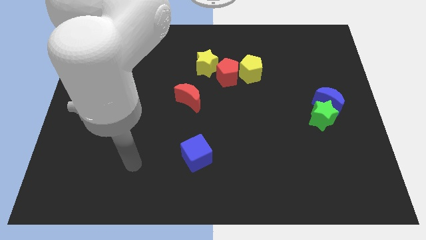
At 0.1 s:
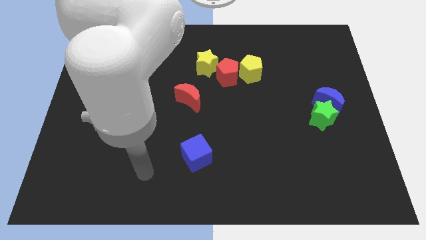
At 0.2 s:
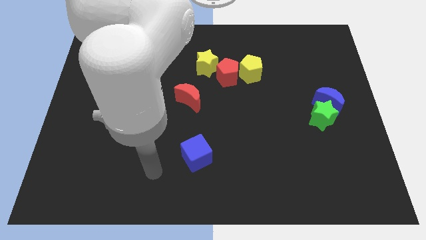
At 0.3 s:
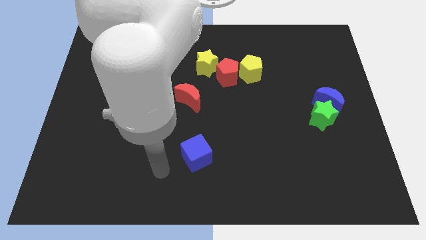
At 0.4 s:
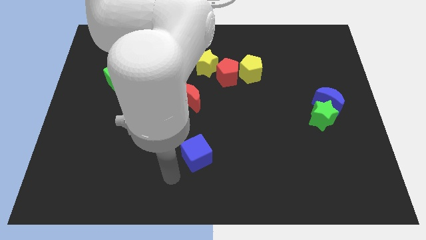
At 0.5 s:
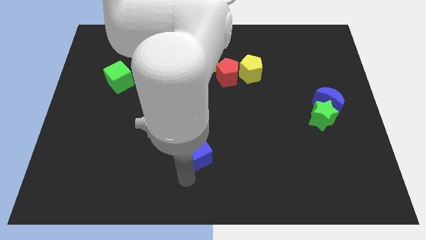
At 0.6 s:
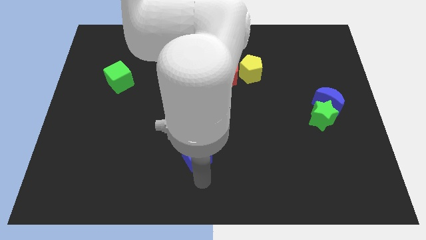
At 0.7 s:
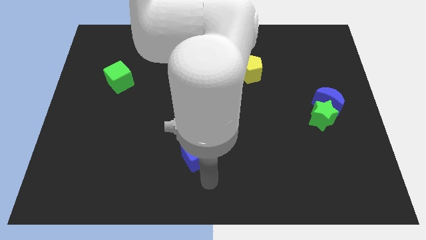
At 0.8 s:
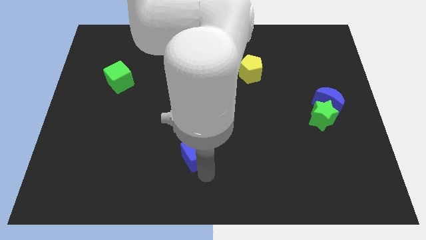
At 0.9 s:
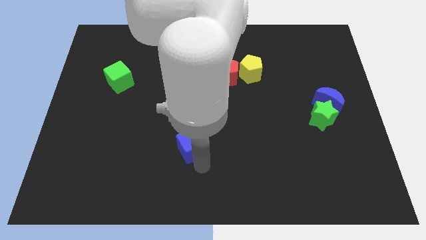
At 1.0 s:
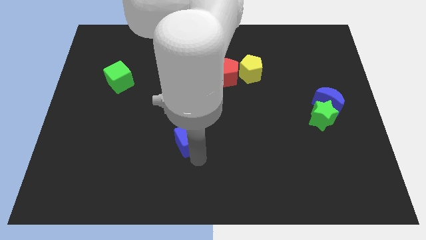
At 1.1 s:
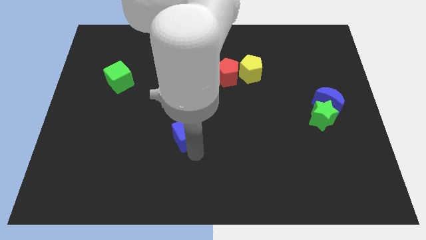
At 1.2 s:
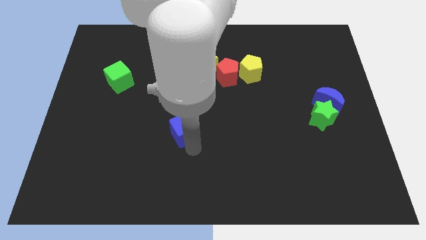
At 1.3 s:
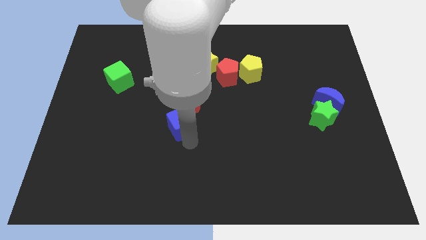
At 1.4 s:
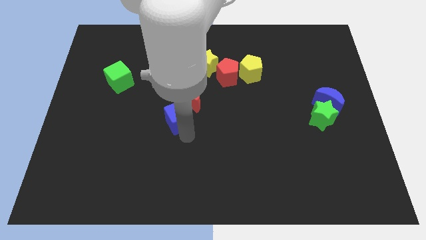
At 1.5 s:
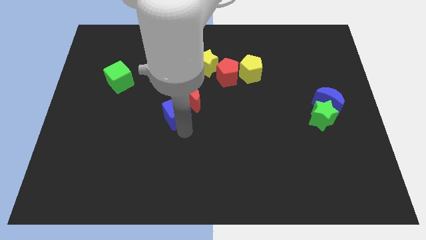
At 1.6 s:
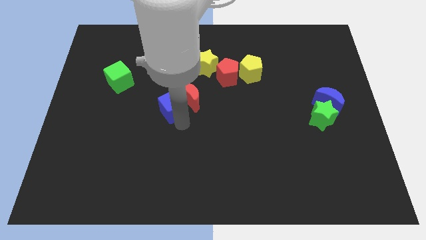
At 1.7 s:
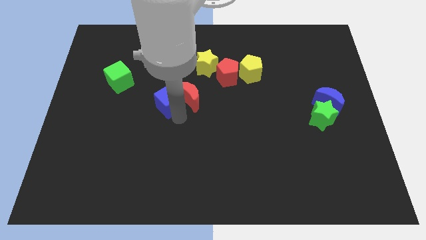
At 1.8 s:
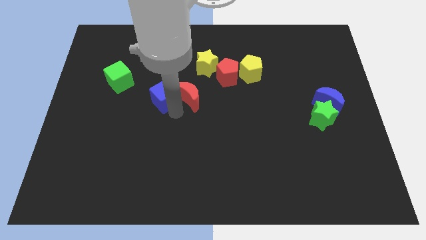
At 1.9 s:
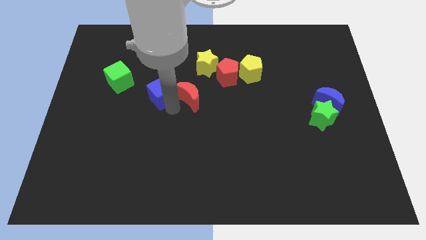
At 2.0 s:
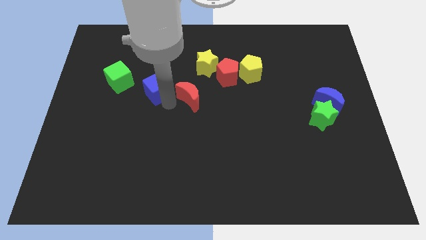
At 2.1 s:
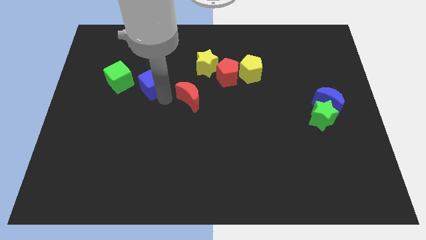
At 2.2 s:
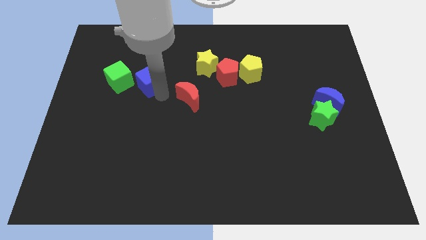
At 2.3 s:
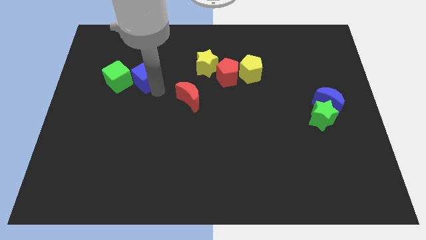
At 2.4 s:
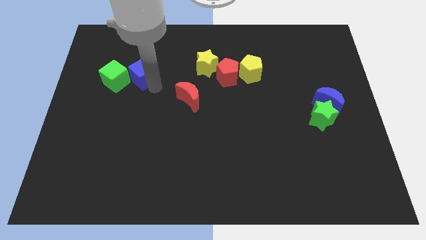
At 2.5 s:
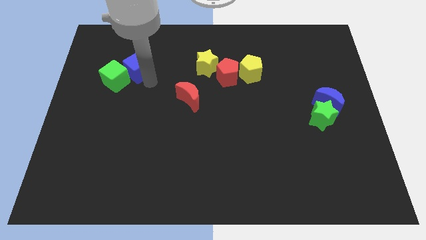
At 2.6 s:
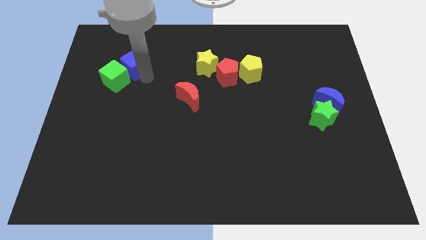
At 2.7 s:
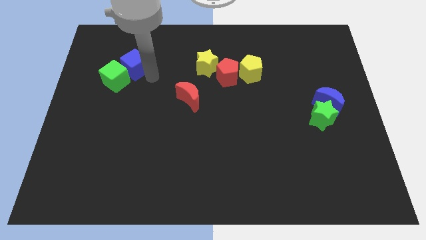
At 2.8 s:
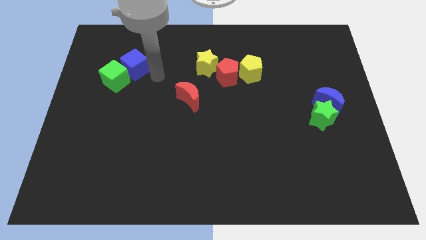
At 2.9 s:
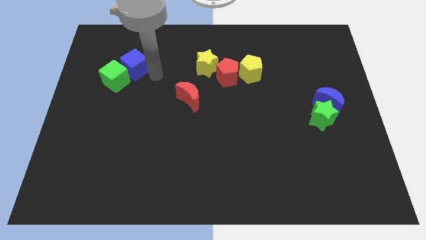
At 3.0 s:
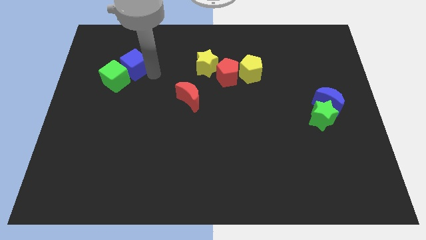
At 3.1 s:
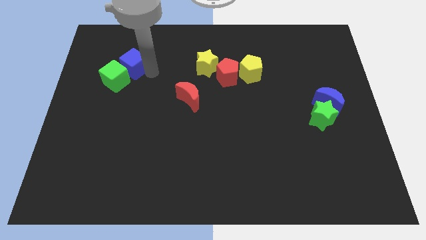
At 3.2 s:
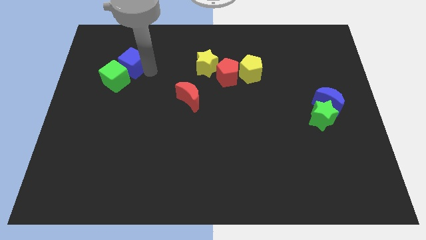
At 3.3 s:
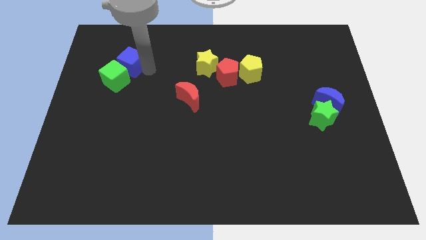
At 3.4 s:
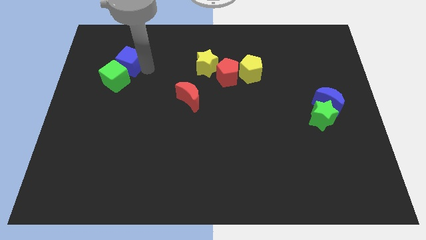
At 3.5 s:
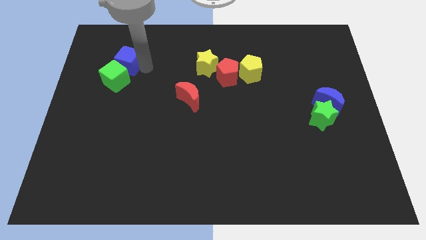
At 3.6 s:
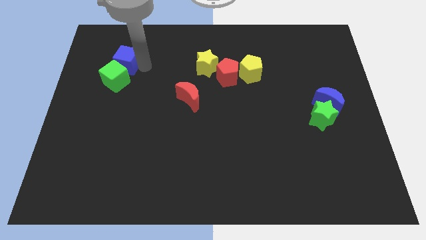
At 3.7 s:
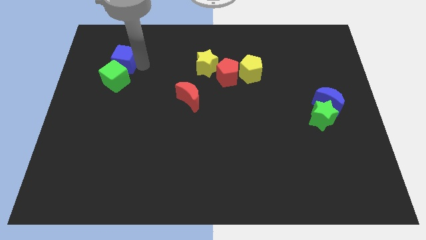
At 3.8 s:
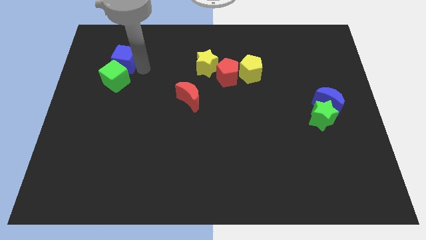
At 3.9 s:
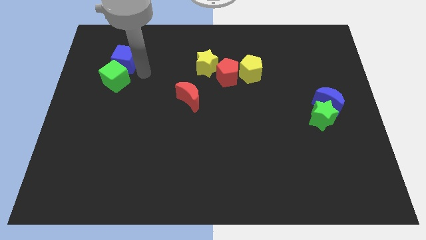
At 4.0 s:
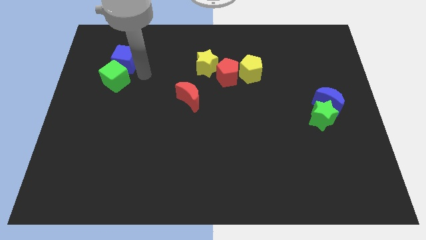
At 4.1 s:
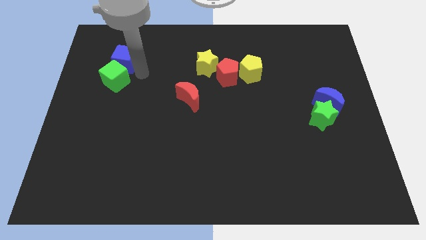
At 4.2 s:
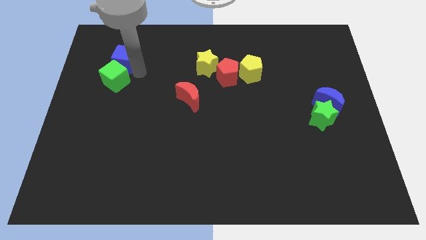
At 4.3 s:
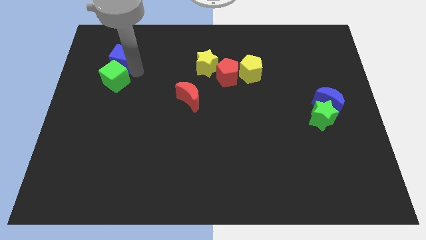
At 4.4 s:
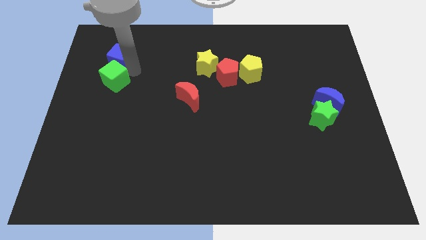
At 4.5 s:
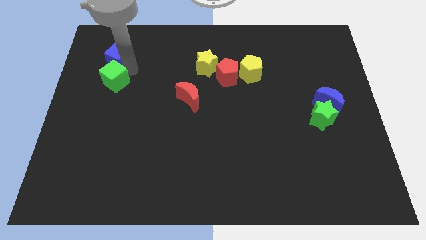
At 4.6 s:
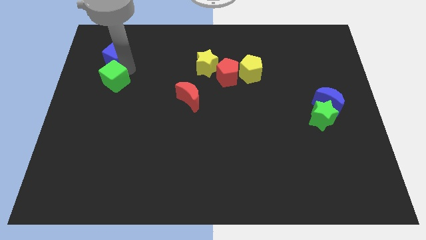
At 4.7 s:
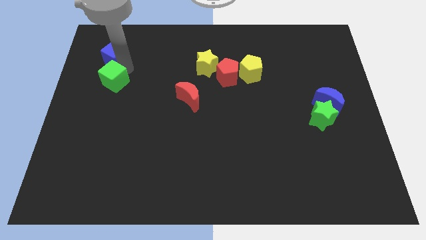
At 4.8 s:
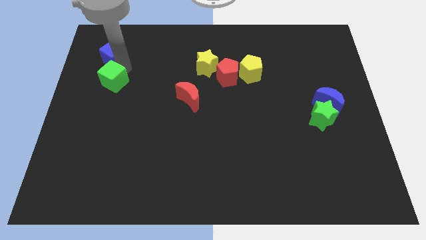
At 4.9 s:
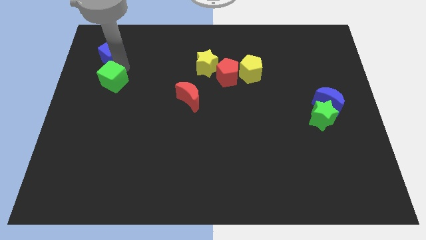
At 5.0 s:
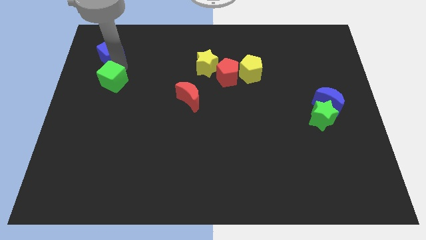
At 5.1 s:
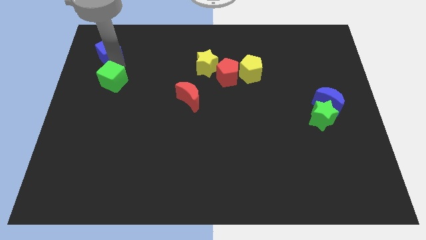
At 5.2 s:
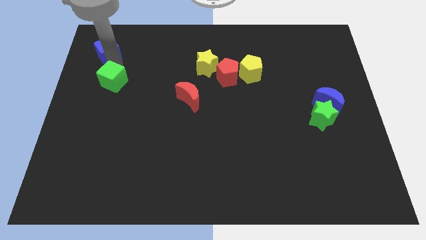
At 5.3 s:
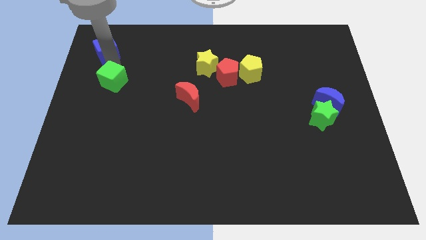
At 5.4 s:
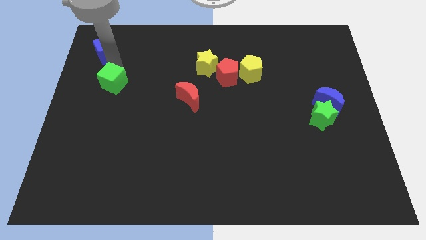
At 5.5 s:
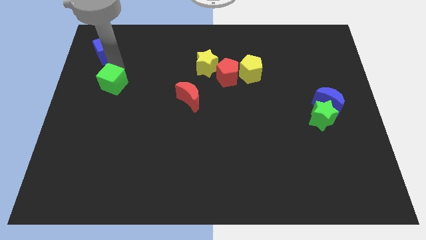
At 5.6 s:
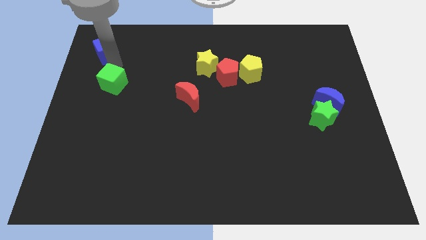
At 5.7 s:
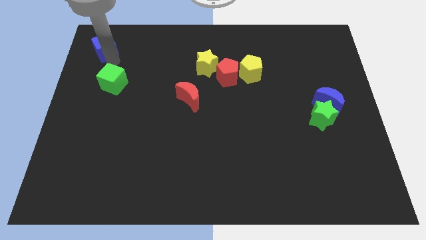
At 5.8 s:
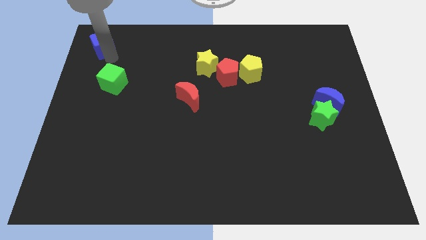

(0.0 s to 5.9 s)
slide the blue cube to the top left of the board

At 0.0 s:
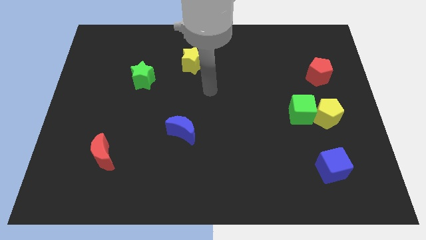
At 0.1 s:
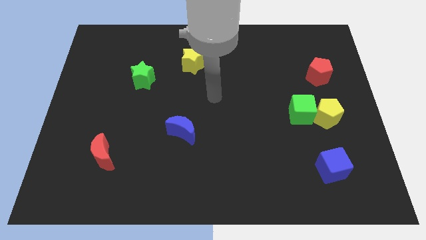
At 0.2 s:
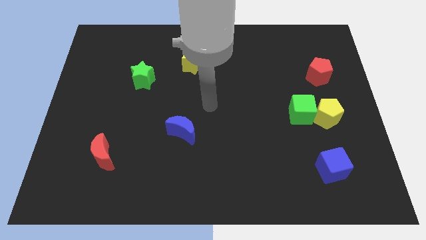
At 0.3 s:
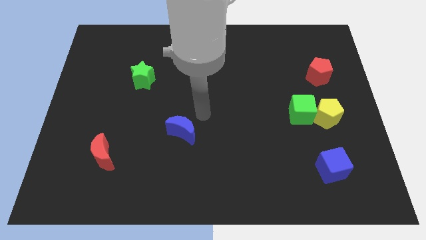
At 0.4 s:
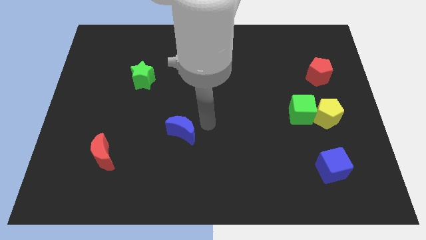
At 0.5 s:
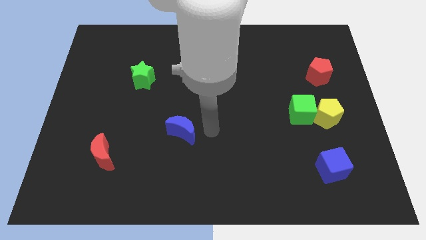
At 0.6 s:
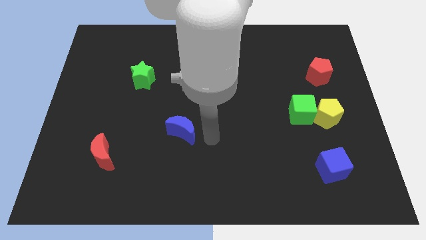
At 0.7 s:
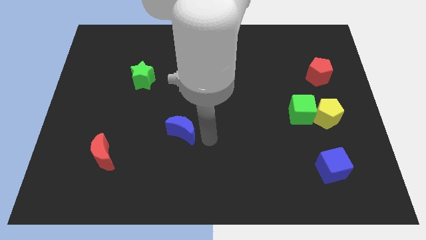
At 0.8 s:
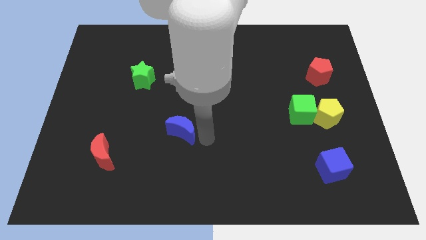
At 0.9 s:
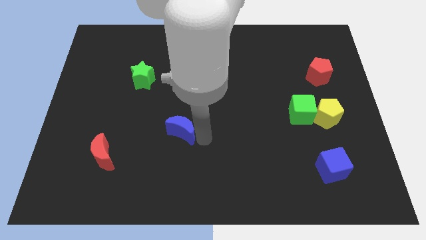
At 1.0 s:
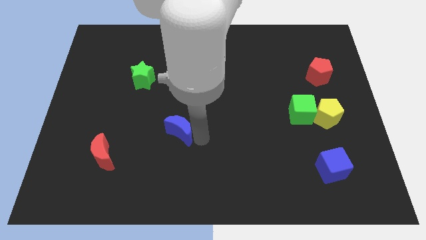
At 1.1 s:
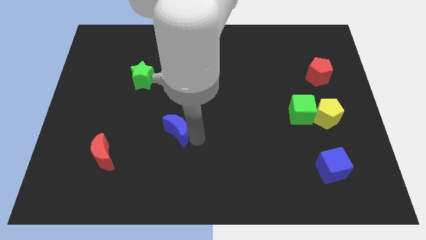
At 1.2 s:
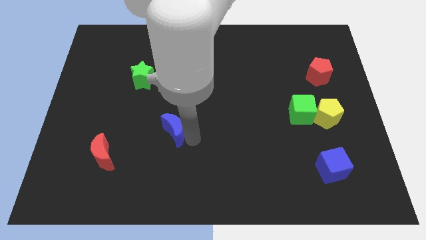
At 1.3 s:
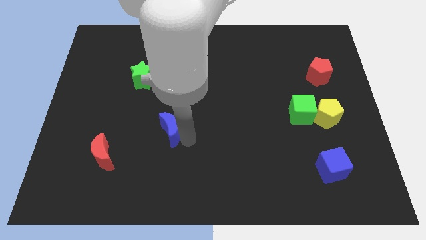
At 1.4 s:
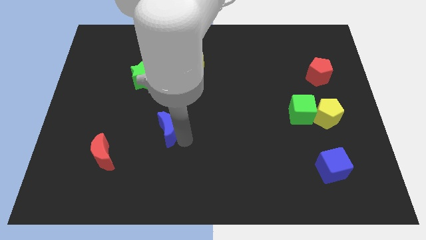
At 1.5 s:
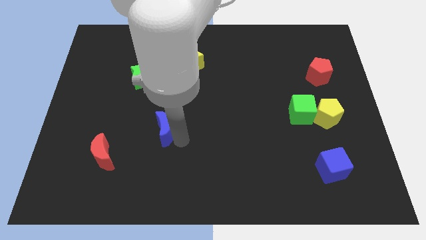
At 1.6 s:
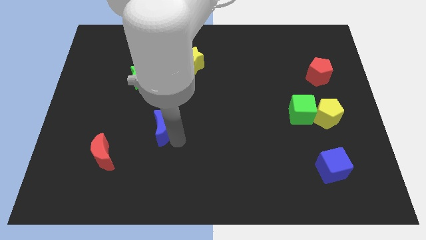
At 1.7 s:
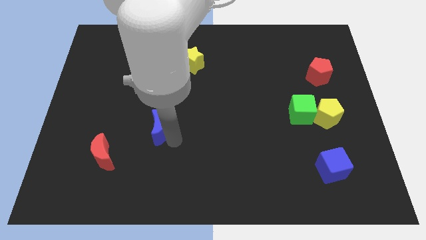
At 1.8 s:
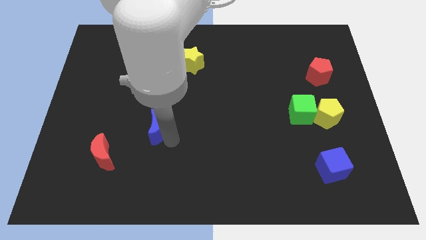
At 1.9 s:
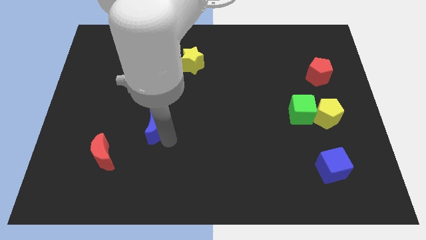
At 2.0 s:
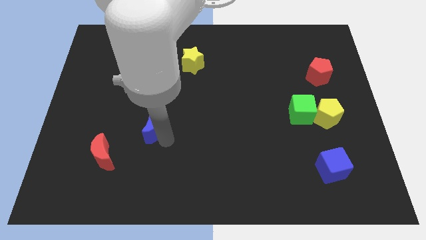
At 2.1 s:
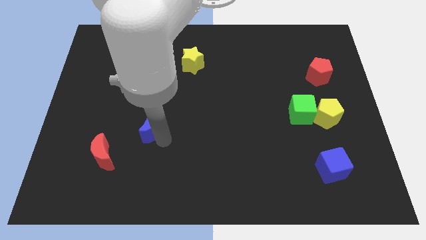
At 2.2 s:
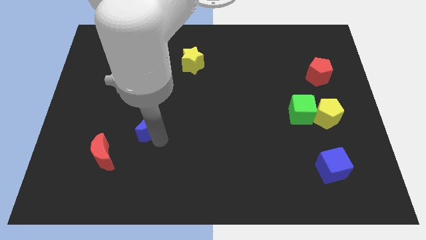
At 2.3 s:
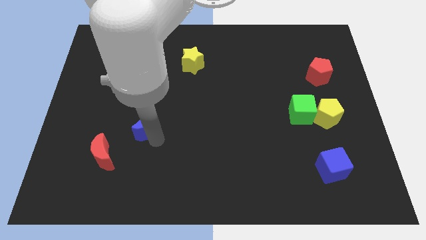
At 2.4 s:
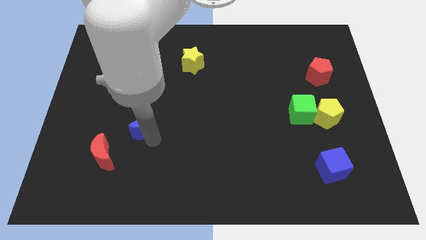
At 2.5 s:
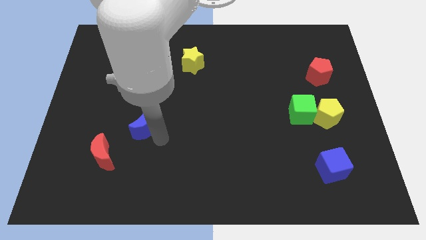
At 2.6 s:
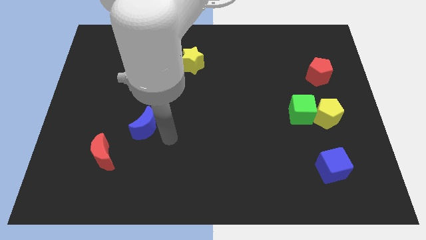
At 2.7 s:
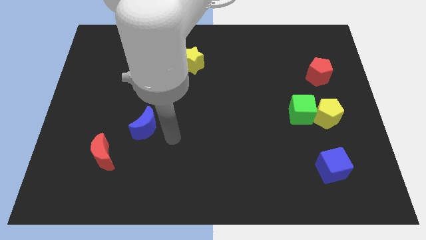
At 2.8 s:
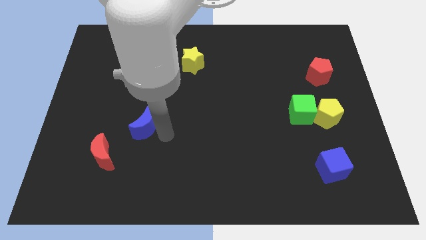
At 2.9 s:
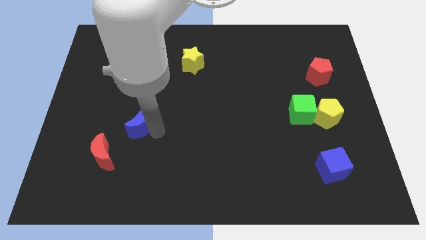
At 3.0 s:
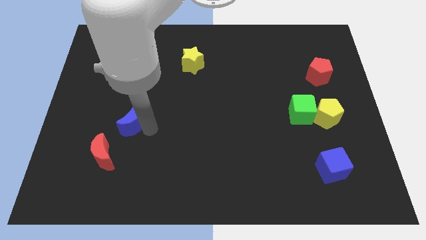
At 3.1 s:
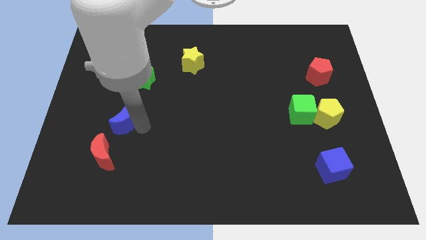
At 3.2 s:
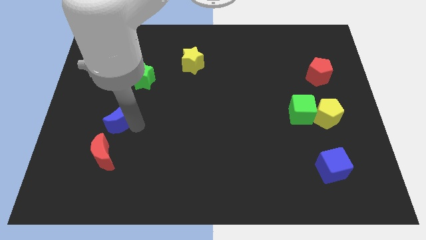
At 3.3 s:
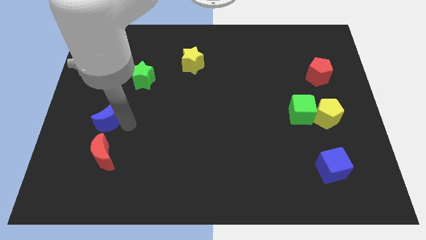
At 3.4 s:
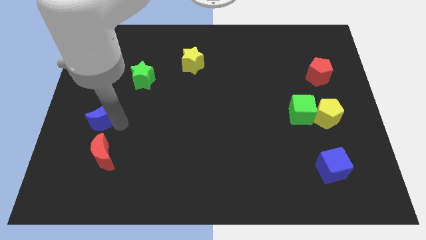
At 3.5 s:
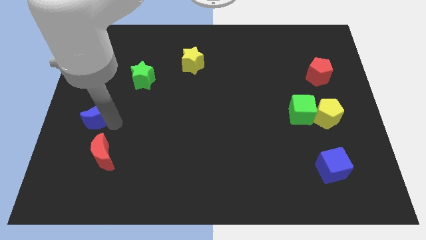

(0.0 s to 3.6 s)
push the blue moon to the center left
